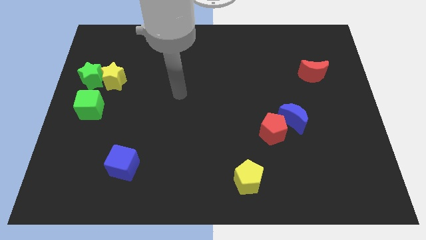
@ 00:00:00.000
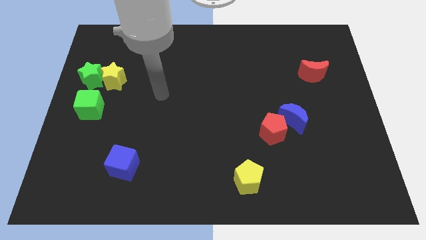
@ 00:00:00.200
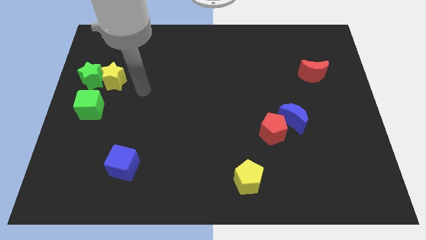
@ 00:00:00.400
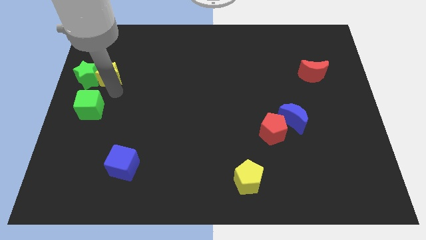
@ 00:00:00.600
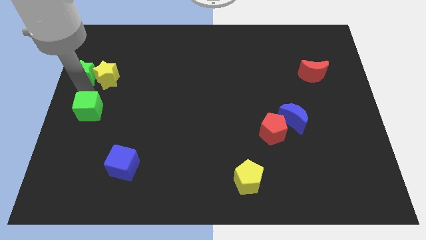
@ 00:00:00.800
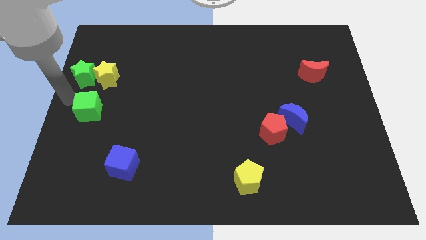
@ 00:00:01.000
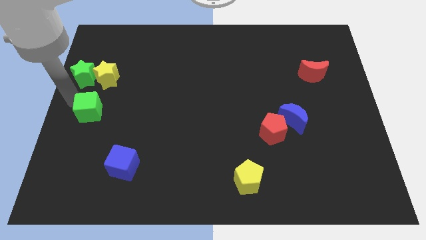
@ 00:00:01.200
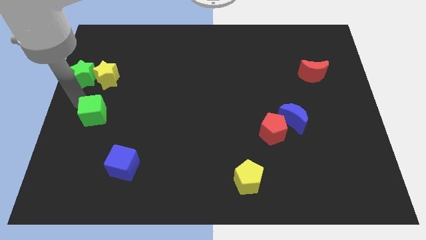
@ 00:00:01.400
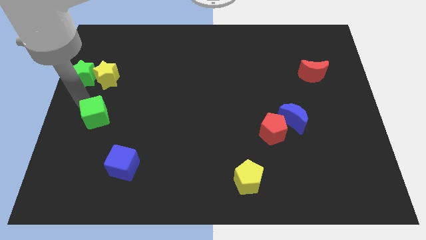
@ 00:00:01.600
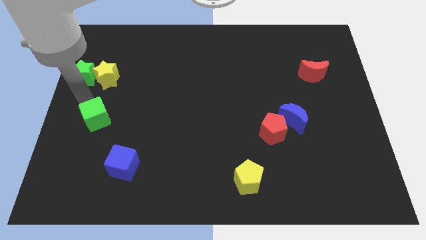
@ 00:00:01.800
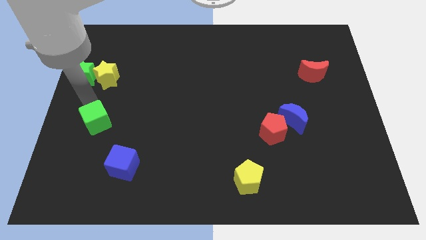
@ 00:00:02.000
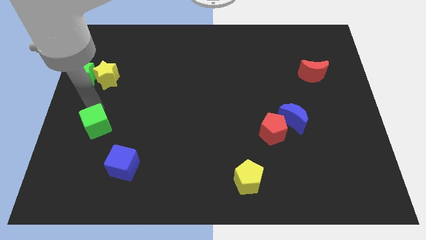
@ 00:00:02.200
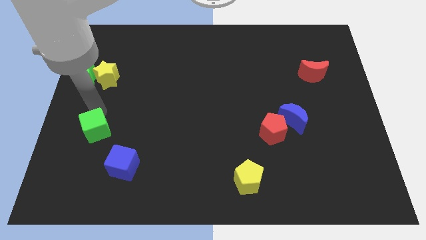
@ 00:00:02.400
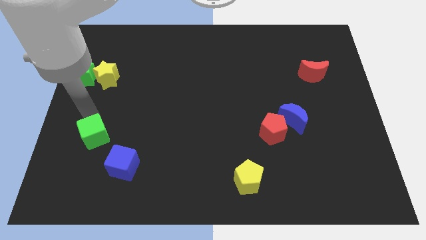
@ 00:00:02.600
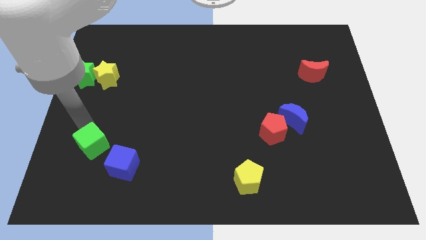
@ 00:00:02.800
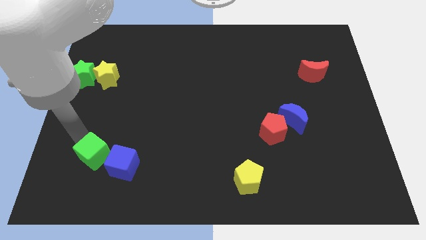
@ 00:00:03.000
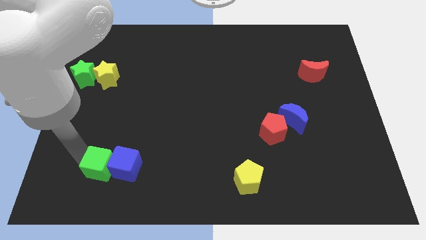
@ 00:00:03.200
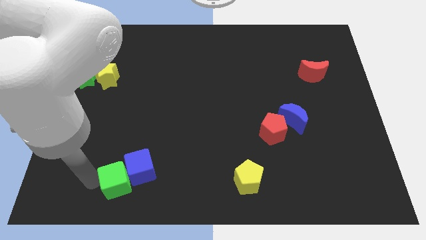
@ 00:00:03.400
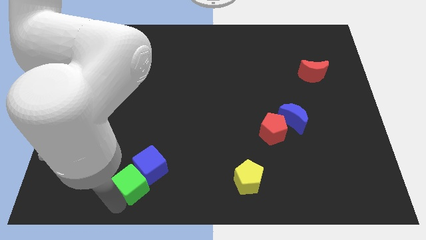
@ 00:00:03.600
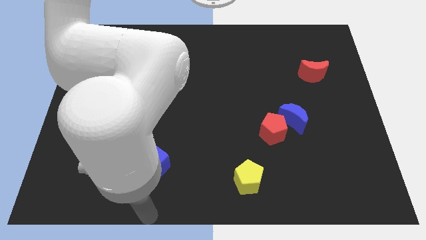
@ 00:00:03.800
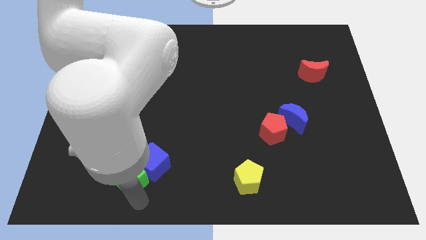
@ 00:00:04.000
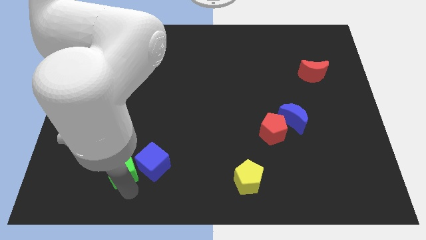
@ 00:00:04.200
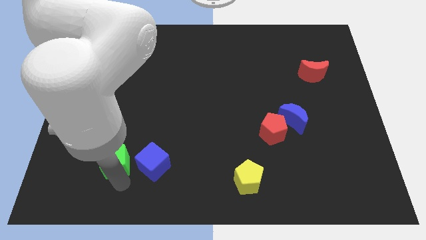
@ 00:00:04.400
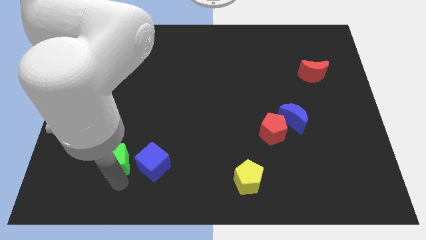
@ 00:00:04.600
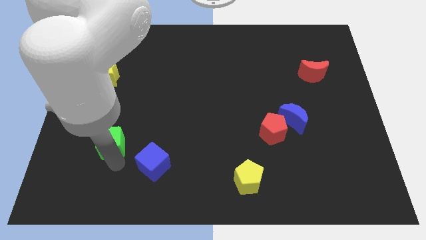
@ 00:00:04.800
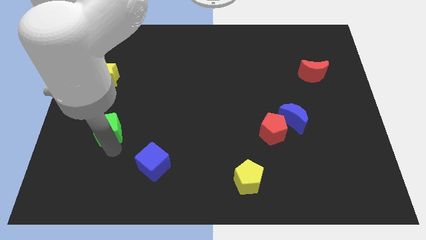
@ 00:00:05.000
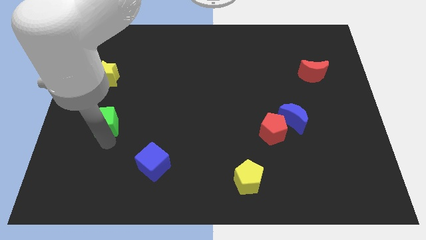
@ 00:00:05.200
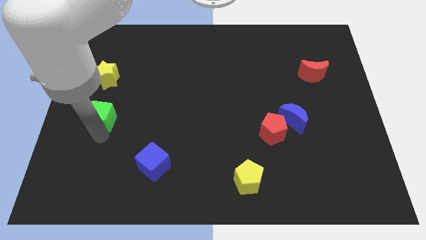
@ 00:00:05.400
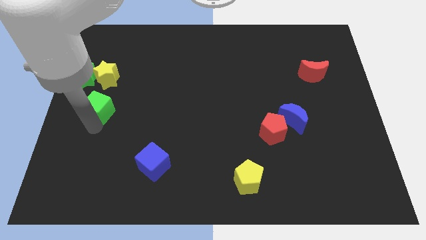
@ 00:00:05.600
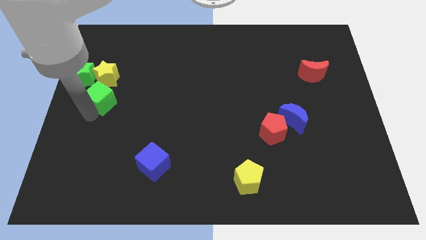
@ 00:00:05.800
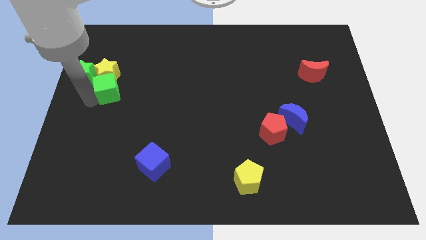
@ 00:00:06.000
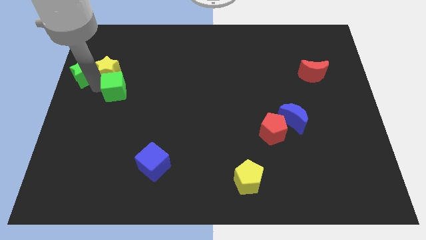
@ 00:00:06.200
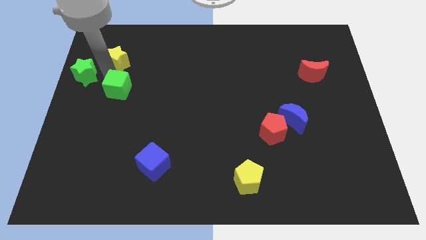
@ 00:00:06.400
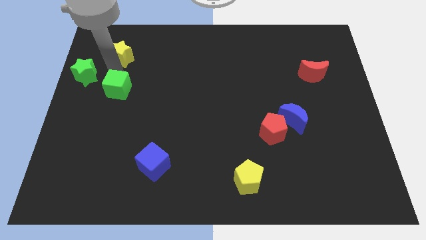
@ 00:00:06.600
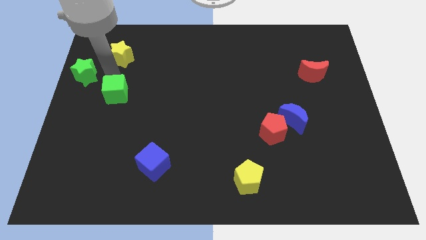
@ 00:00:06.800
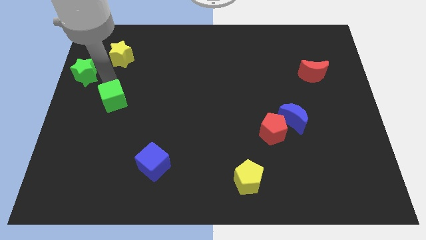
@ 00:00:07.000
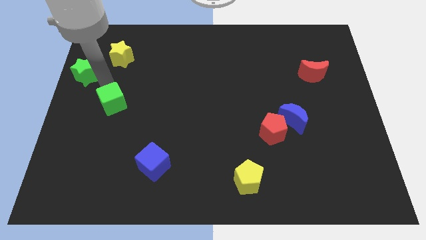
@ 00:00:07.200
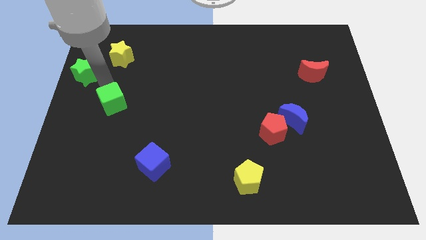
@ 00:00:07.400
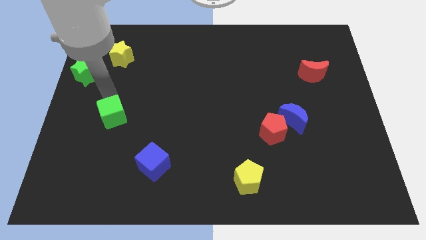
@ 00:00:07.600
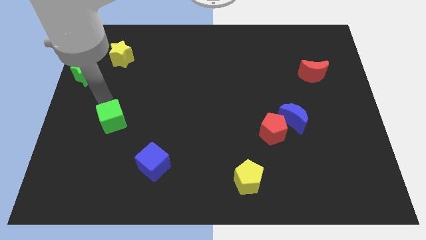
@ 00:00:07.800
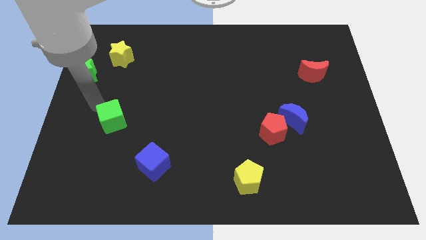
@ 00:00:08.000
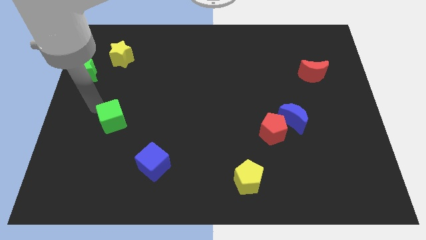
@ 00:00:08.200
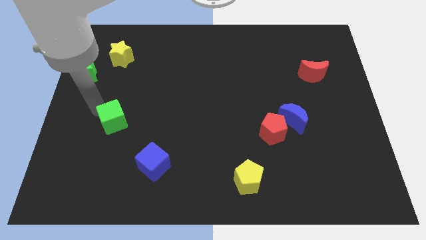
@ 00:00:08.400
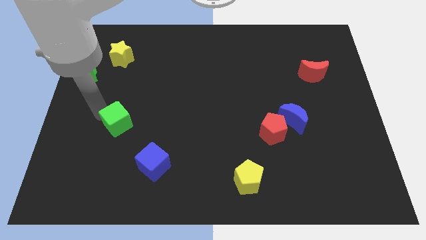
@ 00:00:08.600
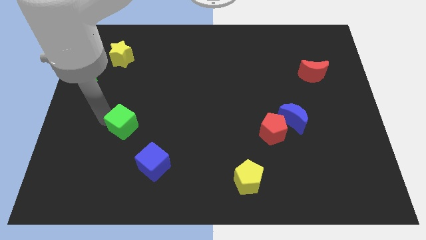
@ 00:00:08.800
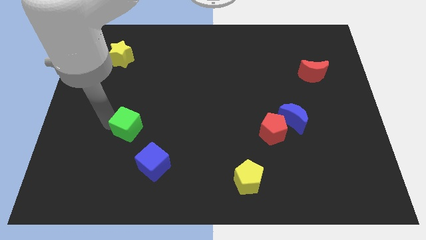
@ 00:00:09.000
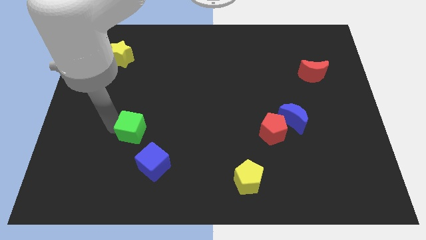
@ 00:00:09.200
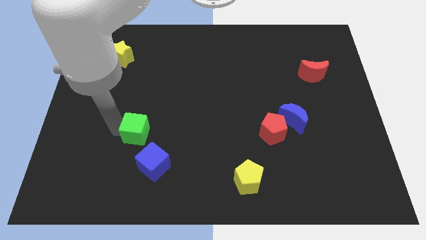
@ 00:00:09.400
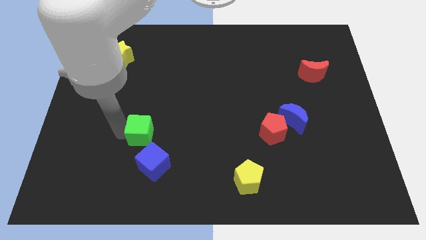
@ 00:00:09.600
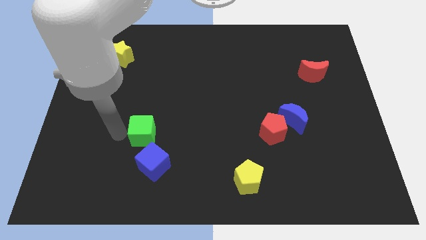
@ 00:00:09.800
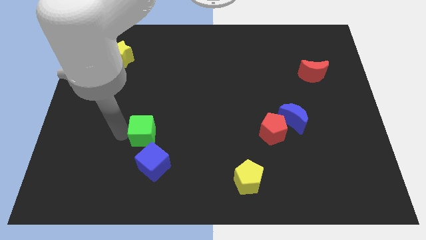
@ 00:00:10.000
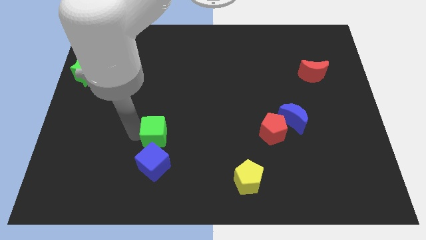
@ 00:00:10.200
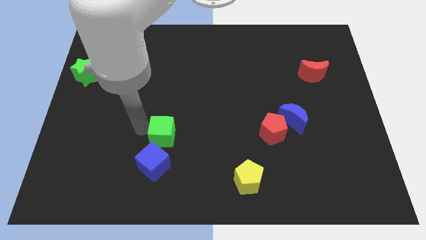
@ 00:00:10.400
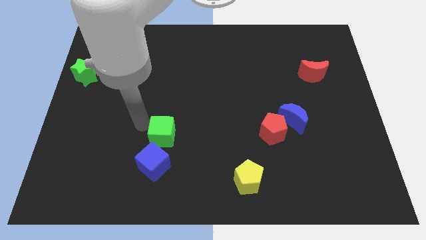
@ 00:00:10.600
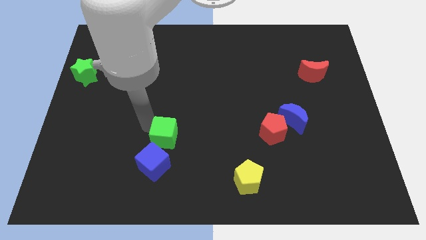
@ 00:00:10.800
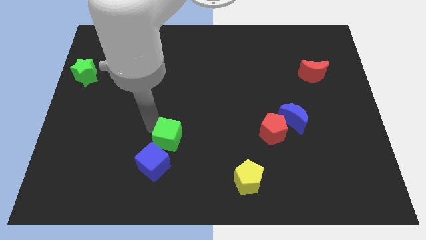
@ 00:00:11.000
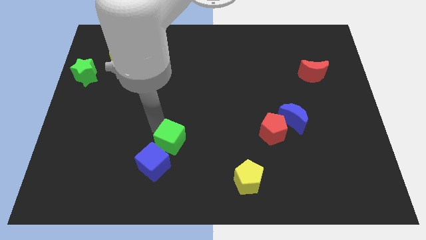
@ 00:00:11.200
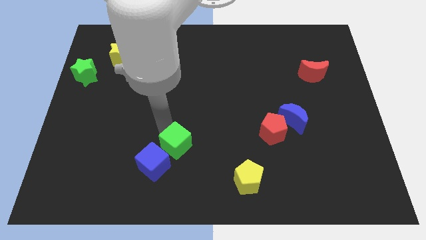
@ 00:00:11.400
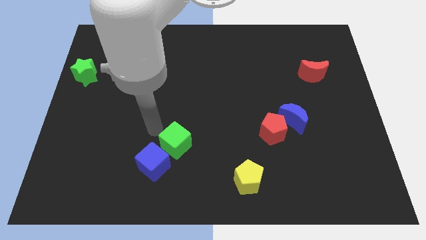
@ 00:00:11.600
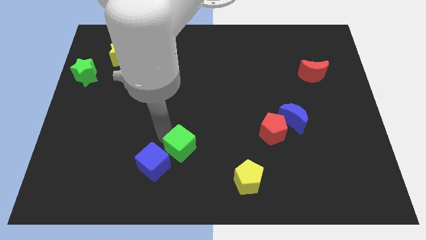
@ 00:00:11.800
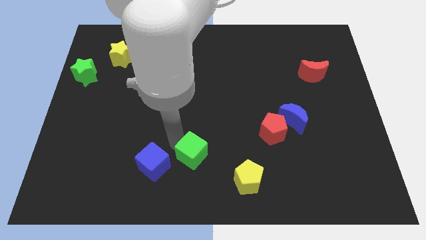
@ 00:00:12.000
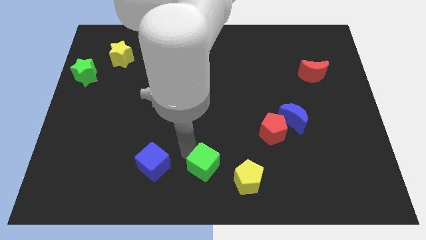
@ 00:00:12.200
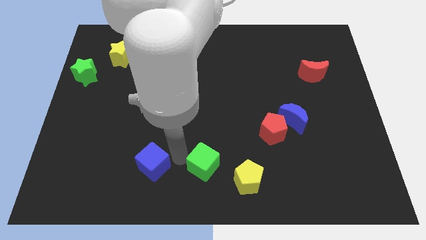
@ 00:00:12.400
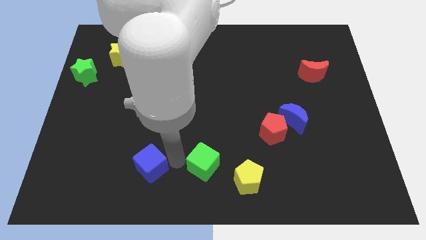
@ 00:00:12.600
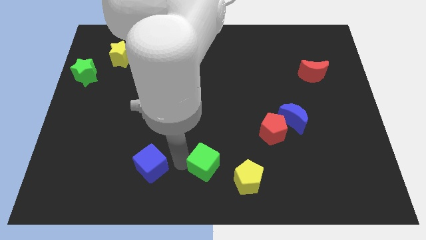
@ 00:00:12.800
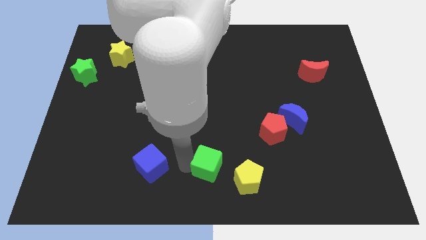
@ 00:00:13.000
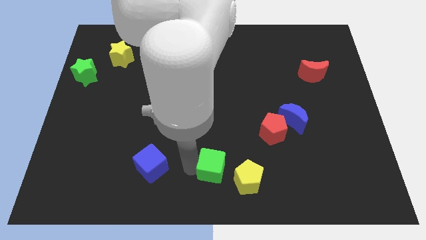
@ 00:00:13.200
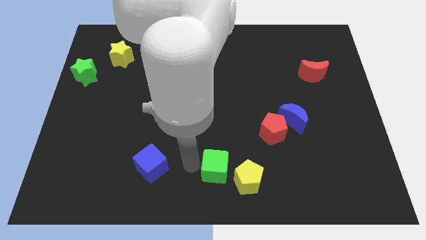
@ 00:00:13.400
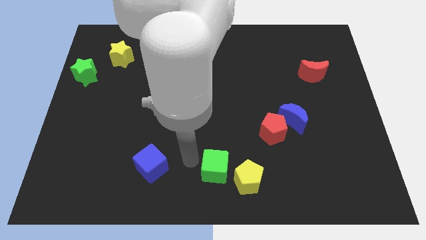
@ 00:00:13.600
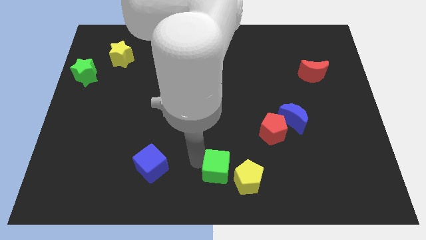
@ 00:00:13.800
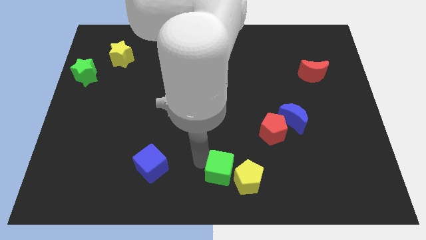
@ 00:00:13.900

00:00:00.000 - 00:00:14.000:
put the green cube towards the yellow pentagon

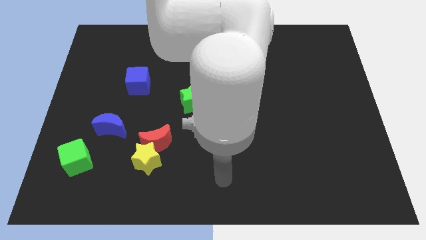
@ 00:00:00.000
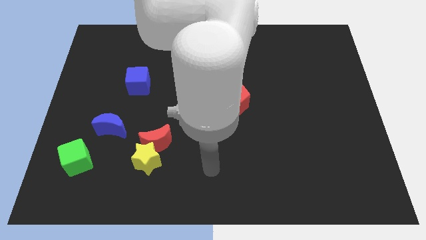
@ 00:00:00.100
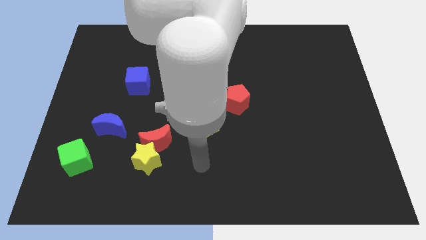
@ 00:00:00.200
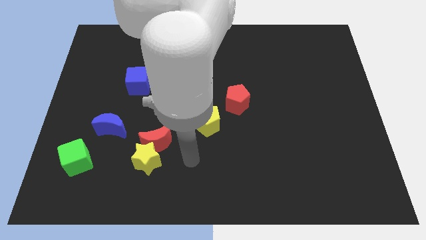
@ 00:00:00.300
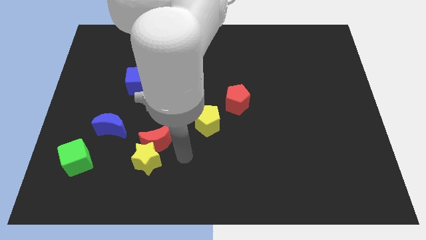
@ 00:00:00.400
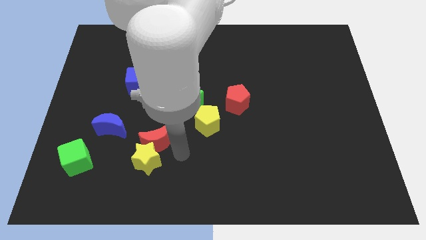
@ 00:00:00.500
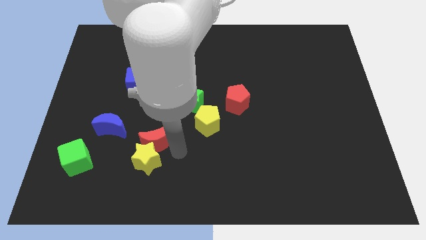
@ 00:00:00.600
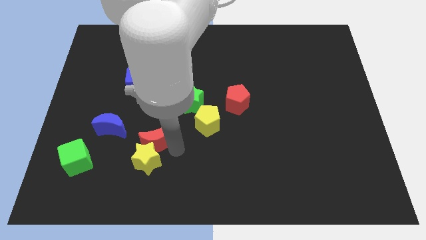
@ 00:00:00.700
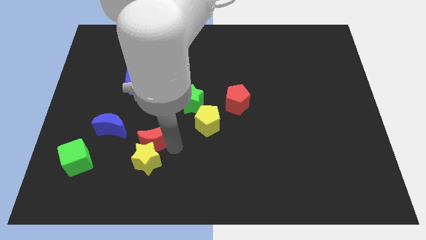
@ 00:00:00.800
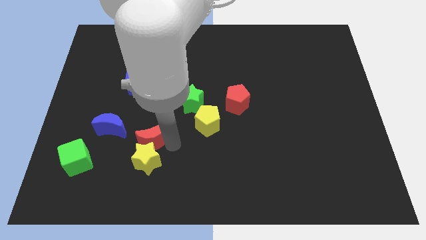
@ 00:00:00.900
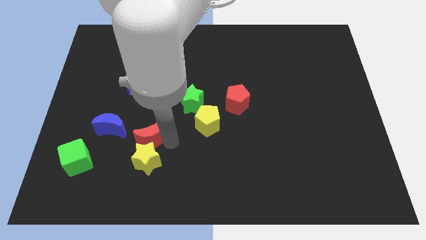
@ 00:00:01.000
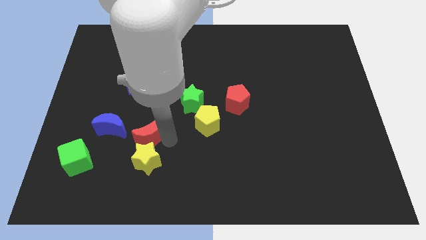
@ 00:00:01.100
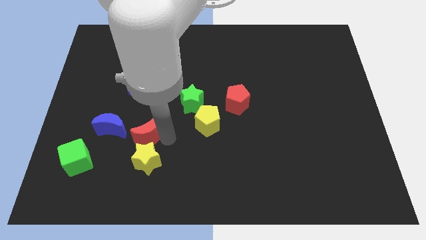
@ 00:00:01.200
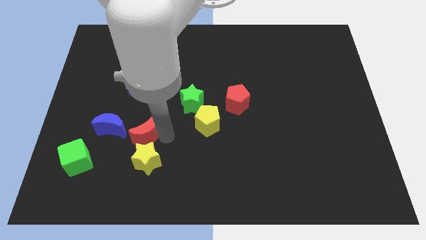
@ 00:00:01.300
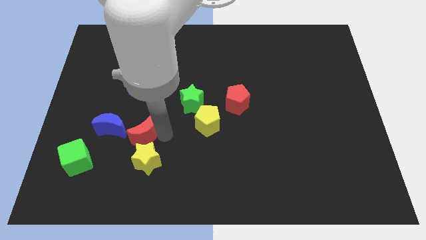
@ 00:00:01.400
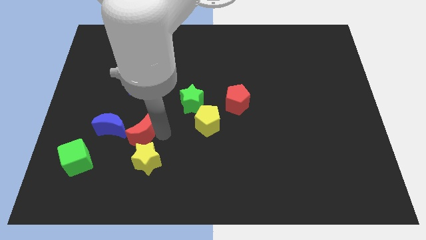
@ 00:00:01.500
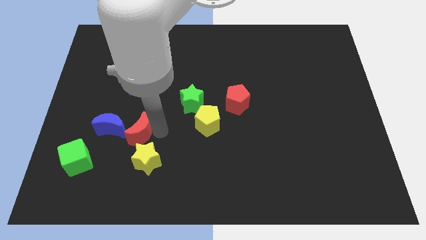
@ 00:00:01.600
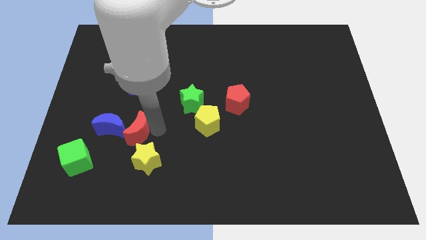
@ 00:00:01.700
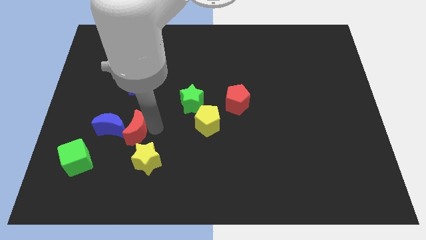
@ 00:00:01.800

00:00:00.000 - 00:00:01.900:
push the red moon next to the blue moon
